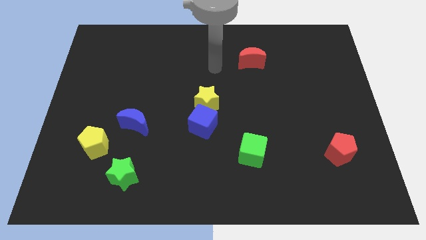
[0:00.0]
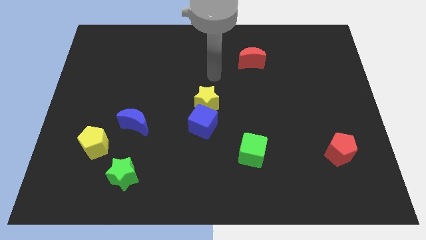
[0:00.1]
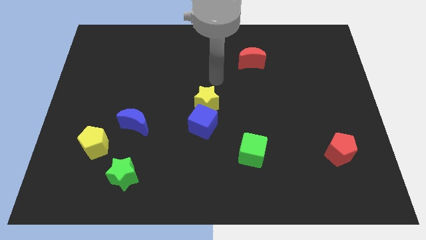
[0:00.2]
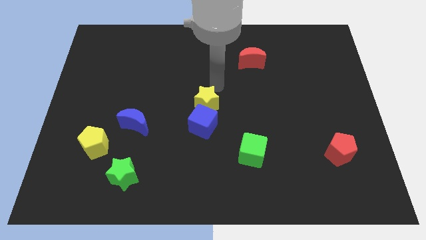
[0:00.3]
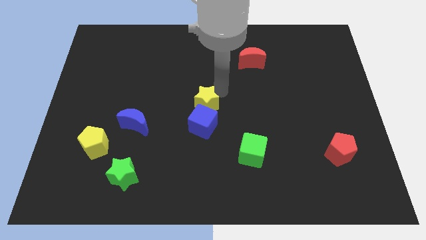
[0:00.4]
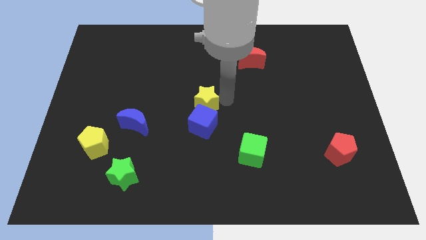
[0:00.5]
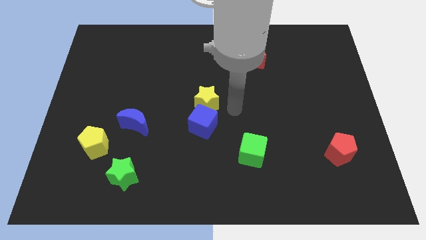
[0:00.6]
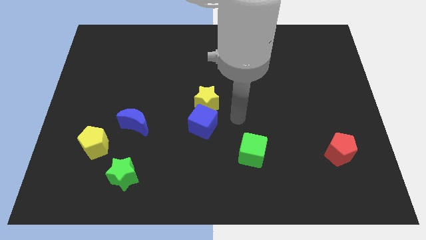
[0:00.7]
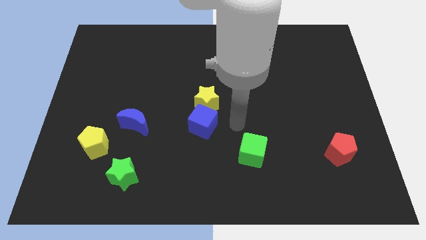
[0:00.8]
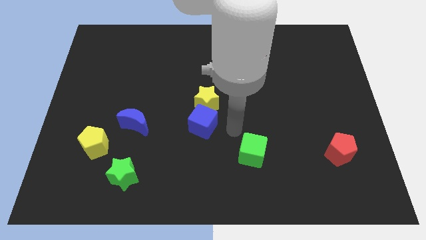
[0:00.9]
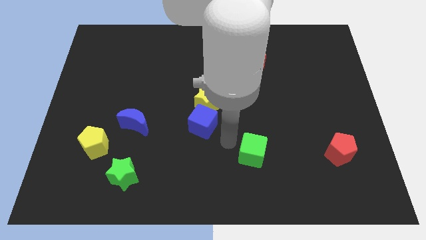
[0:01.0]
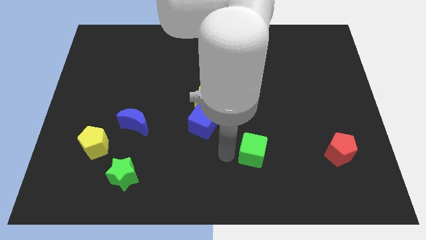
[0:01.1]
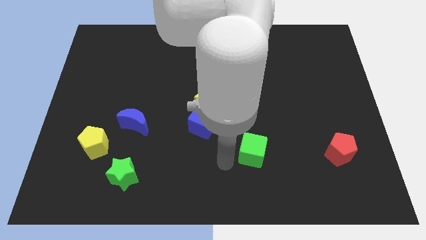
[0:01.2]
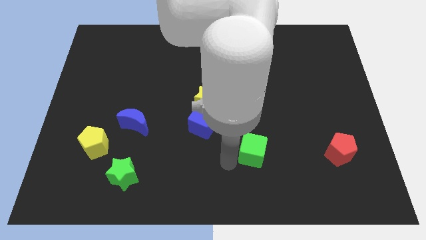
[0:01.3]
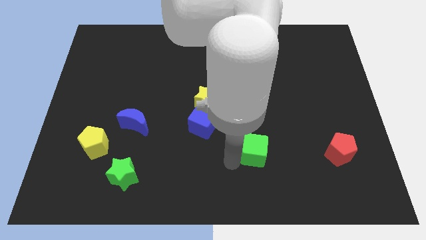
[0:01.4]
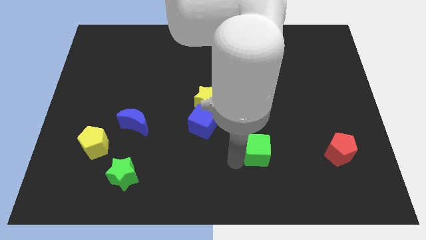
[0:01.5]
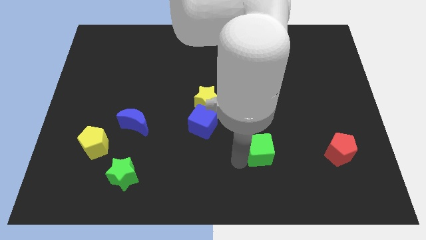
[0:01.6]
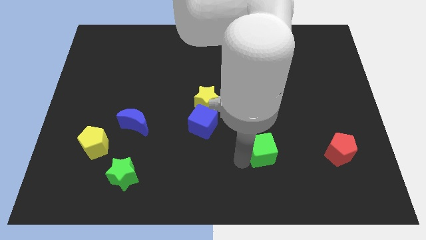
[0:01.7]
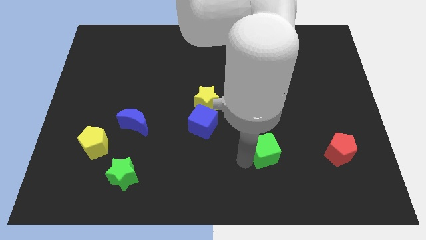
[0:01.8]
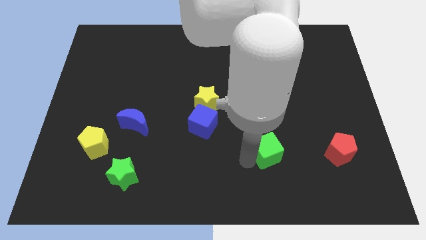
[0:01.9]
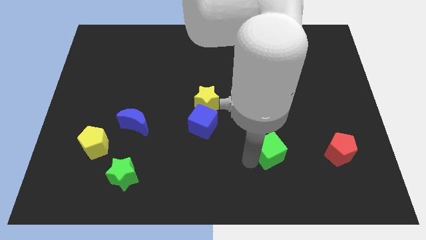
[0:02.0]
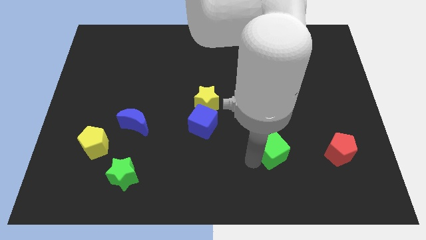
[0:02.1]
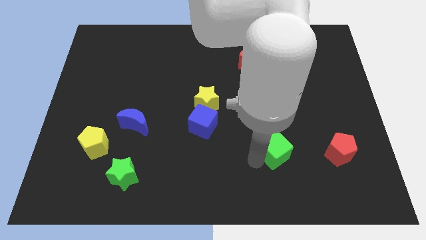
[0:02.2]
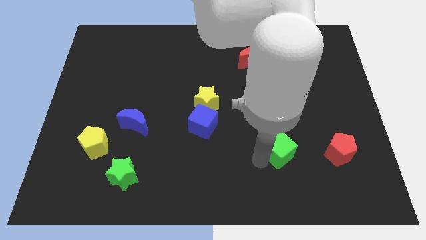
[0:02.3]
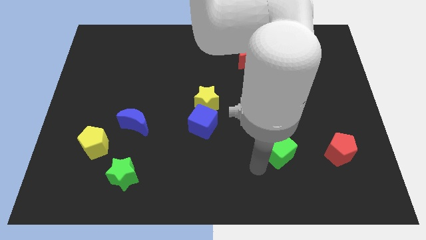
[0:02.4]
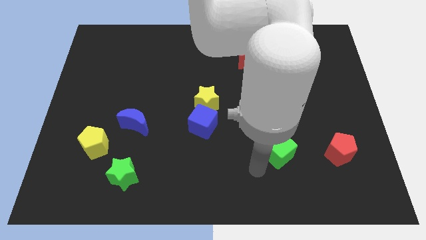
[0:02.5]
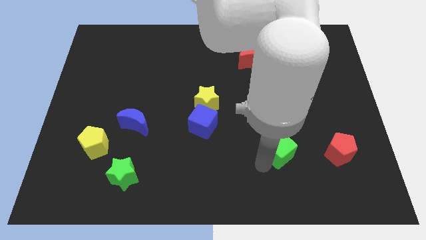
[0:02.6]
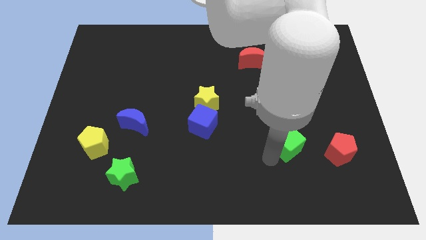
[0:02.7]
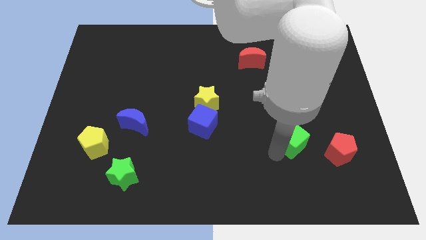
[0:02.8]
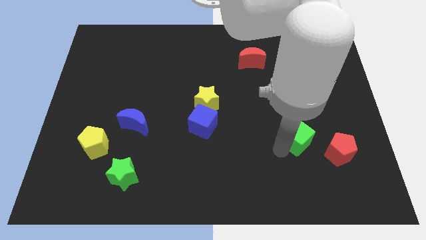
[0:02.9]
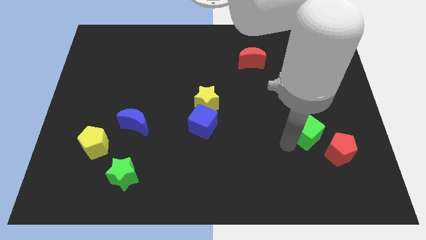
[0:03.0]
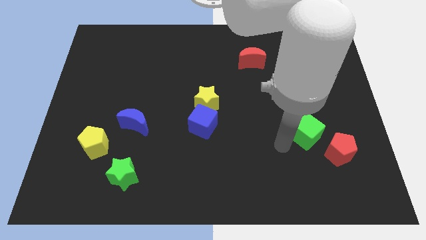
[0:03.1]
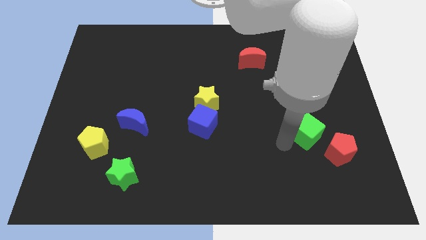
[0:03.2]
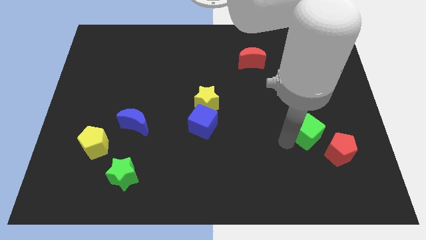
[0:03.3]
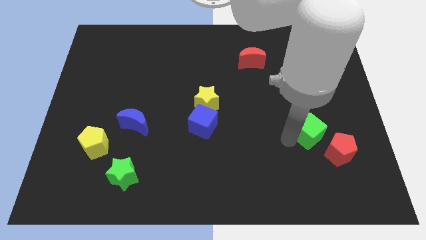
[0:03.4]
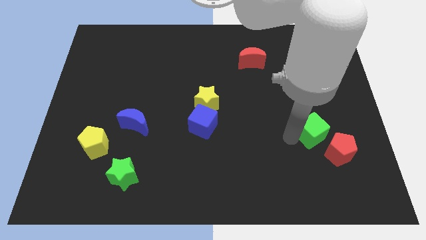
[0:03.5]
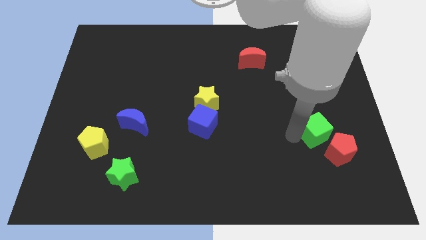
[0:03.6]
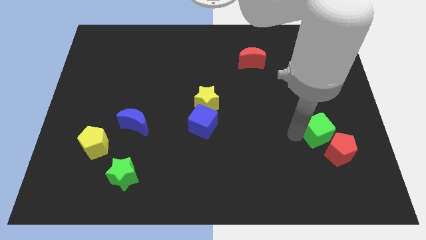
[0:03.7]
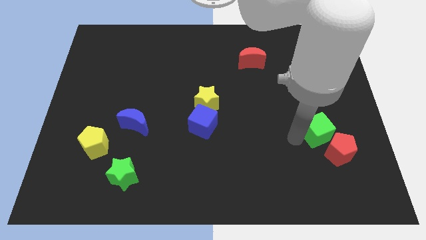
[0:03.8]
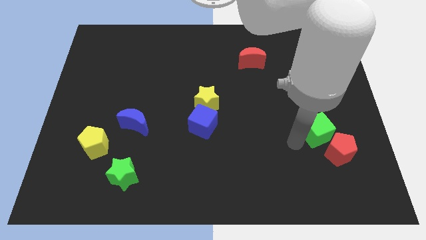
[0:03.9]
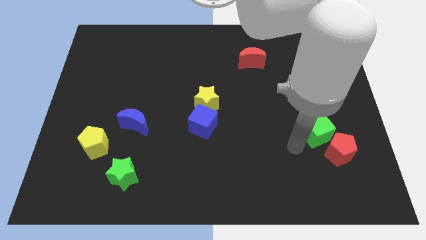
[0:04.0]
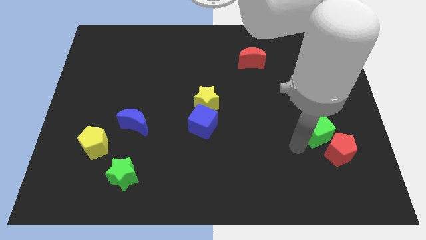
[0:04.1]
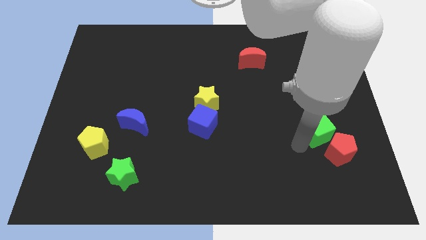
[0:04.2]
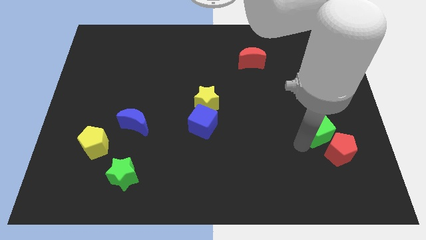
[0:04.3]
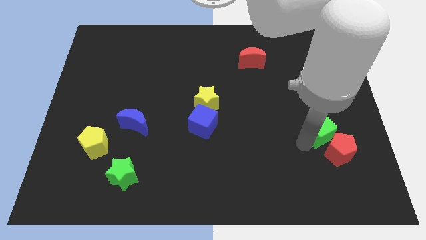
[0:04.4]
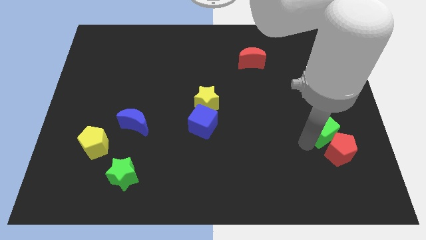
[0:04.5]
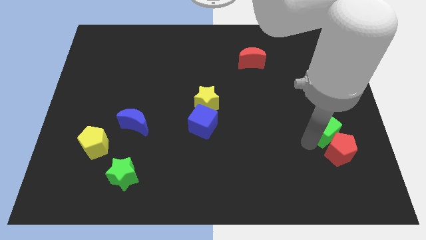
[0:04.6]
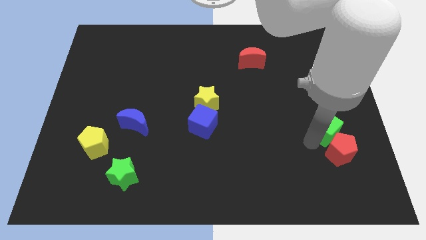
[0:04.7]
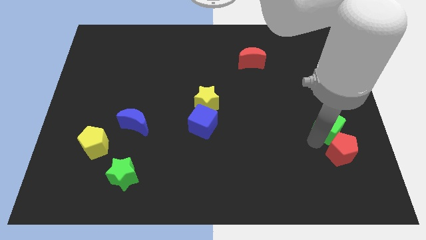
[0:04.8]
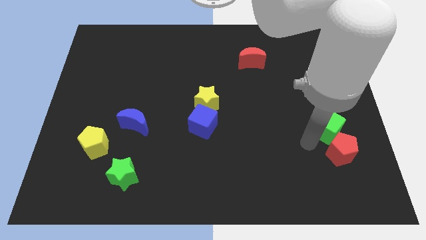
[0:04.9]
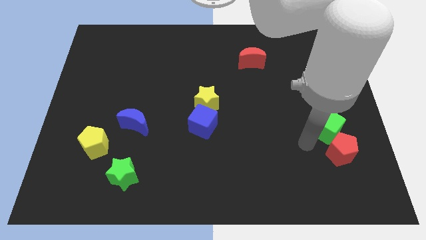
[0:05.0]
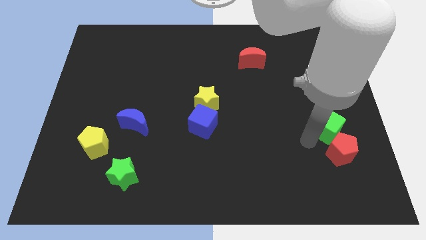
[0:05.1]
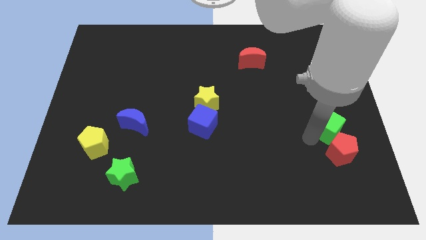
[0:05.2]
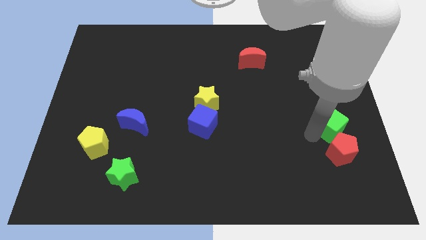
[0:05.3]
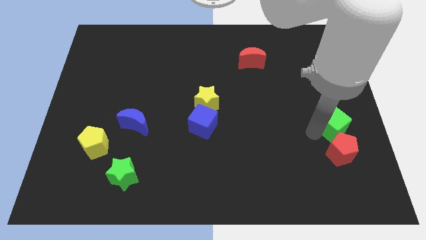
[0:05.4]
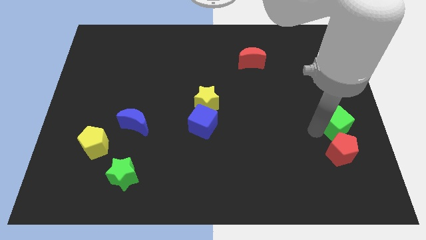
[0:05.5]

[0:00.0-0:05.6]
push the green cube to the right side
